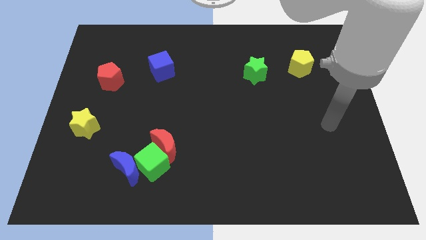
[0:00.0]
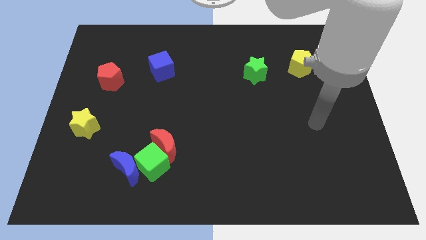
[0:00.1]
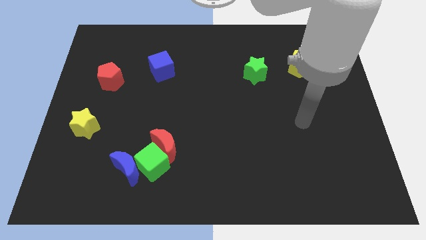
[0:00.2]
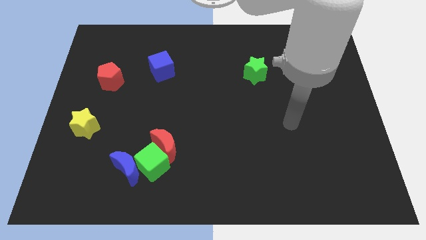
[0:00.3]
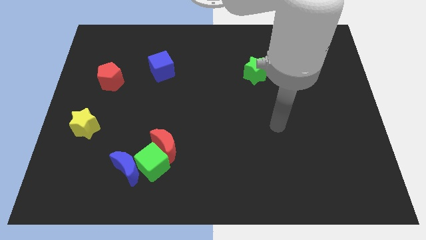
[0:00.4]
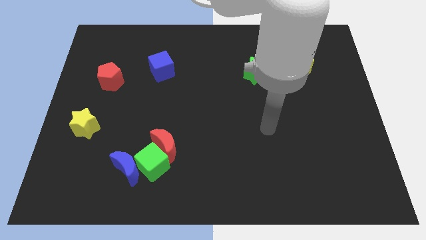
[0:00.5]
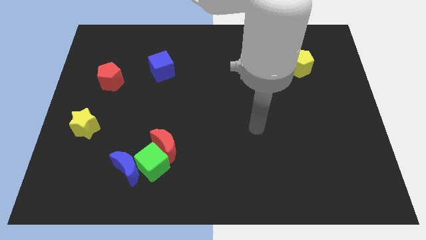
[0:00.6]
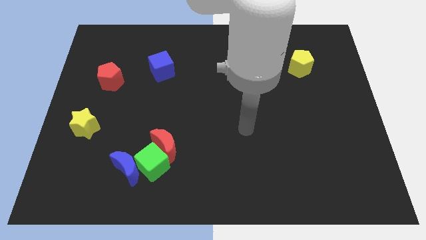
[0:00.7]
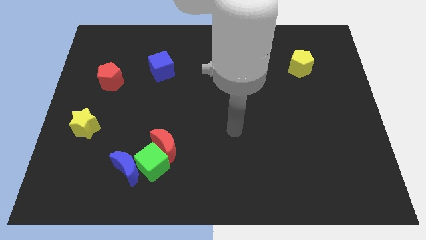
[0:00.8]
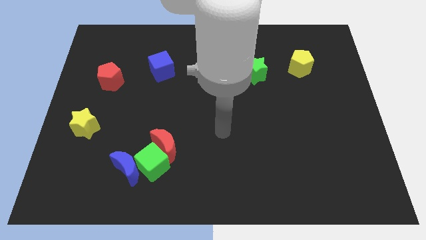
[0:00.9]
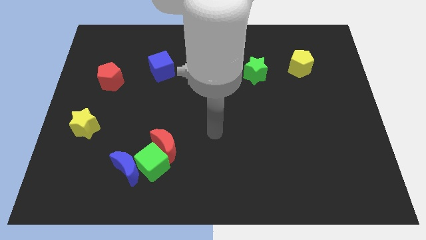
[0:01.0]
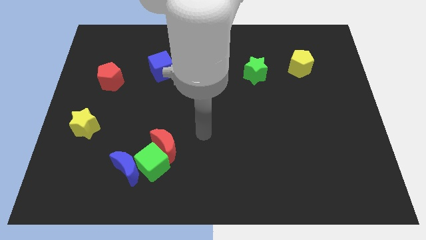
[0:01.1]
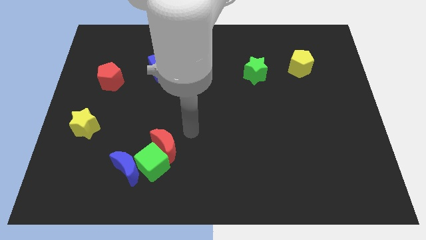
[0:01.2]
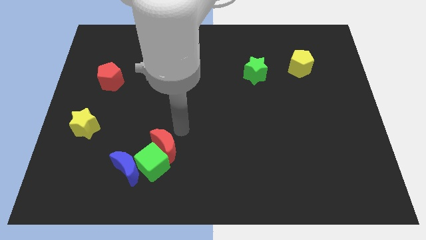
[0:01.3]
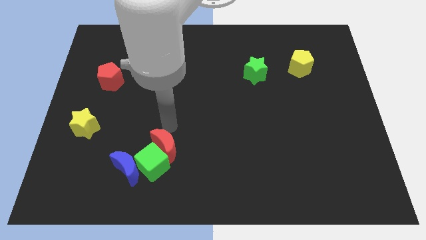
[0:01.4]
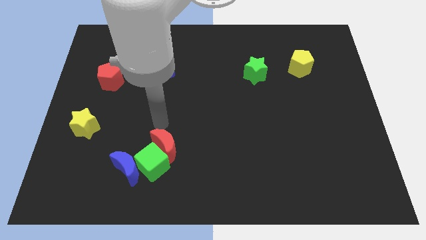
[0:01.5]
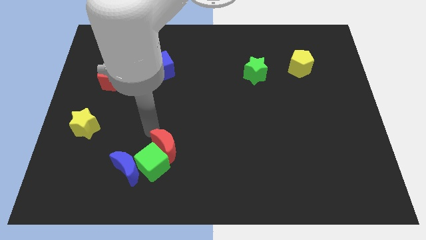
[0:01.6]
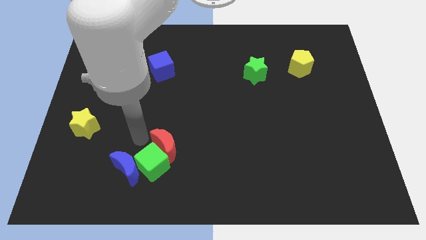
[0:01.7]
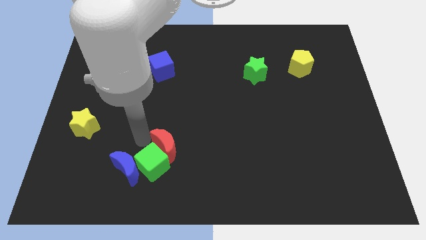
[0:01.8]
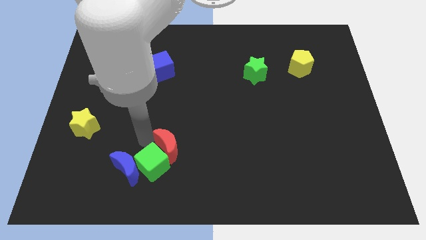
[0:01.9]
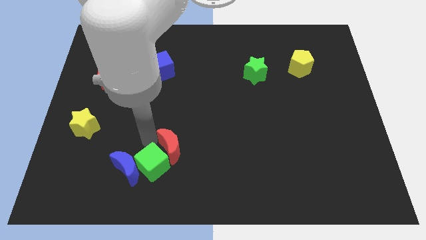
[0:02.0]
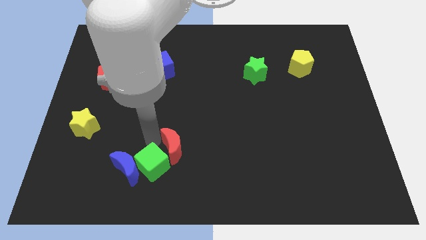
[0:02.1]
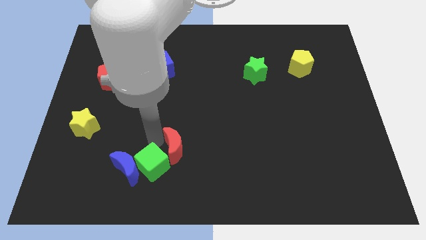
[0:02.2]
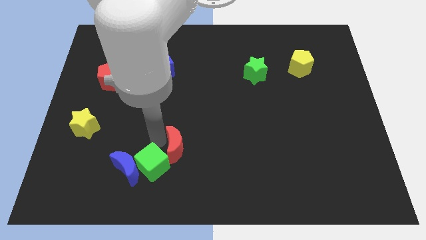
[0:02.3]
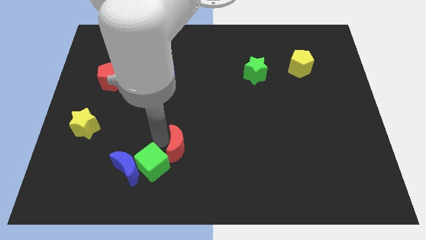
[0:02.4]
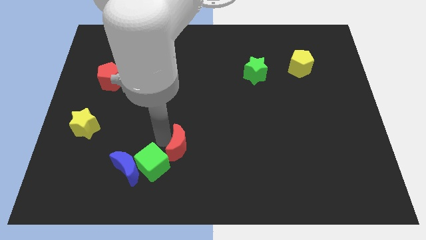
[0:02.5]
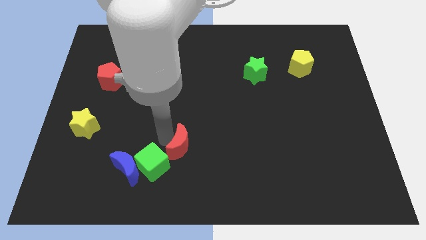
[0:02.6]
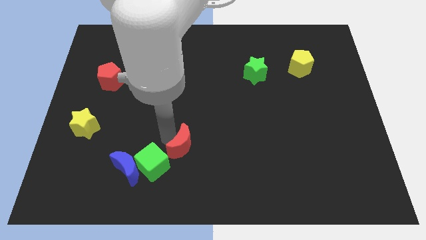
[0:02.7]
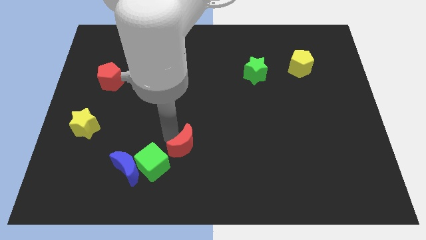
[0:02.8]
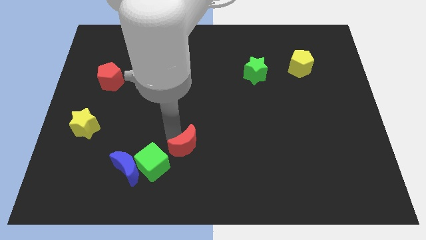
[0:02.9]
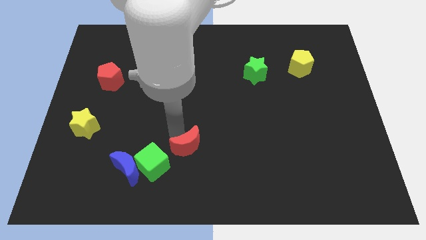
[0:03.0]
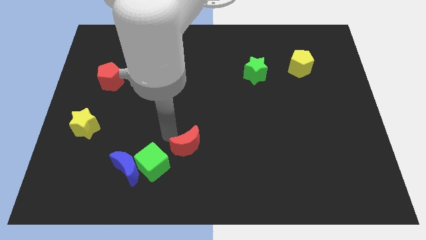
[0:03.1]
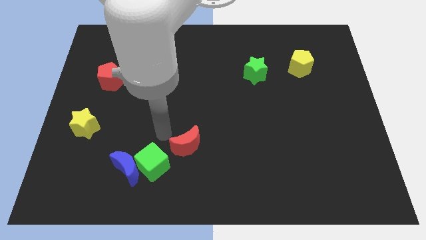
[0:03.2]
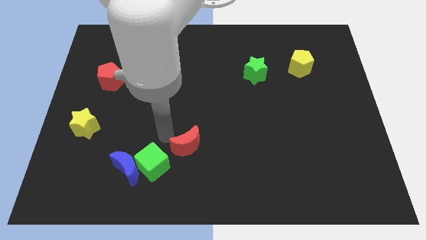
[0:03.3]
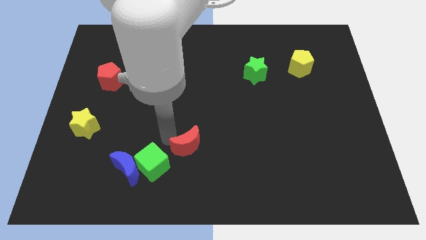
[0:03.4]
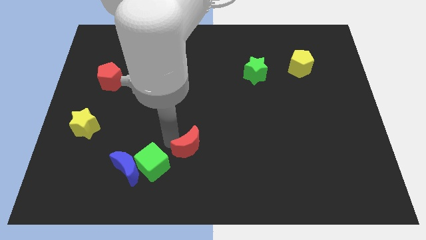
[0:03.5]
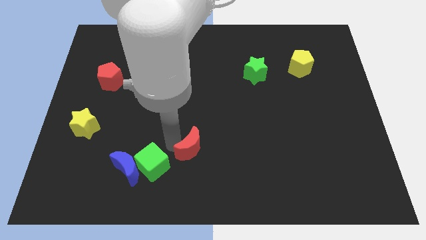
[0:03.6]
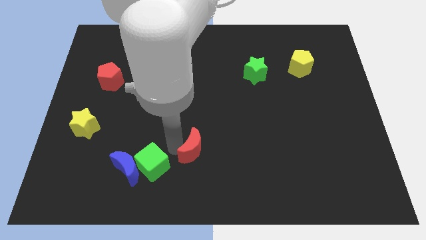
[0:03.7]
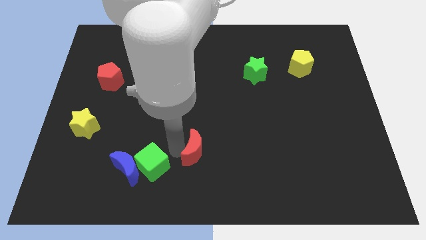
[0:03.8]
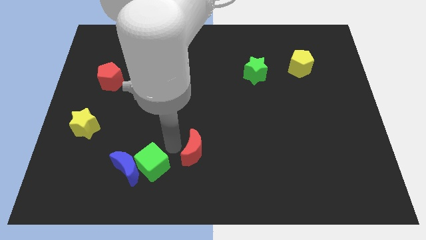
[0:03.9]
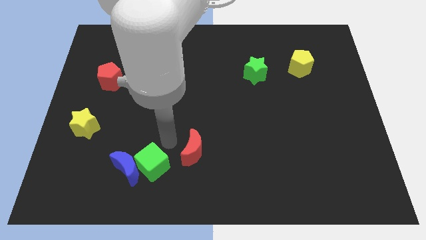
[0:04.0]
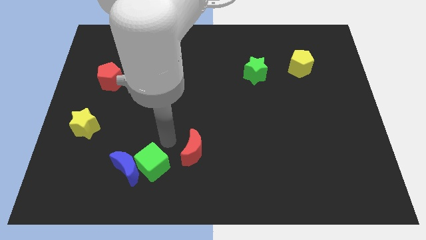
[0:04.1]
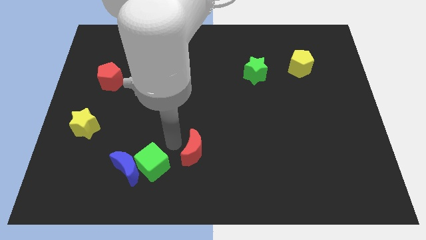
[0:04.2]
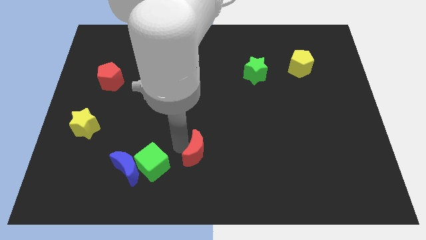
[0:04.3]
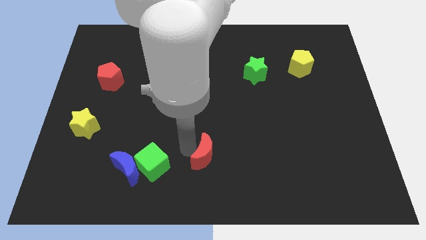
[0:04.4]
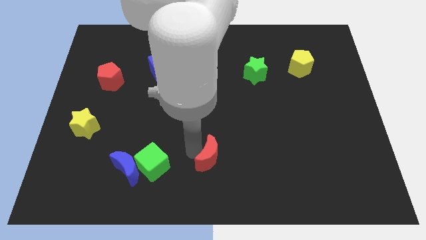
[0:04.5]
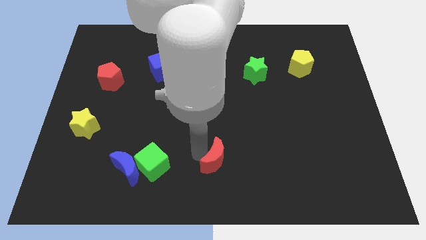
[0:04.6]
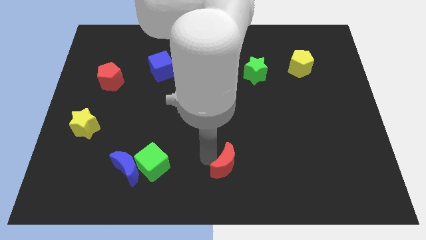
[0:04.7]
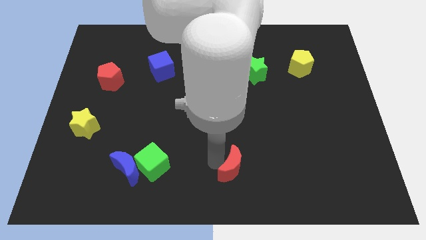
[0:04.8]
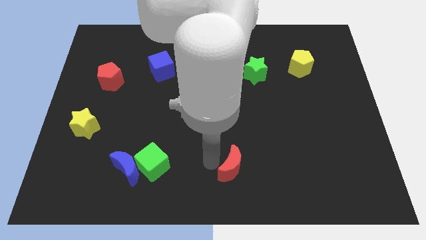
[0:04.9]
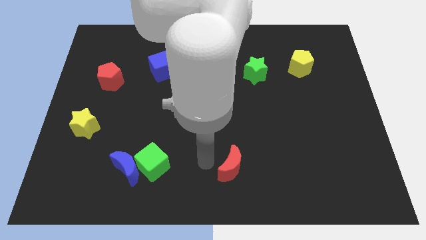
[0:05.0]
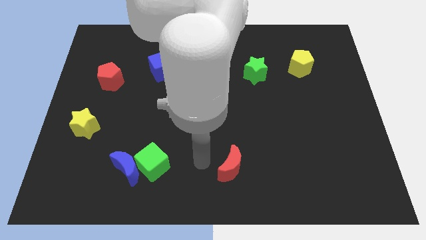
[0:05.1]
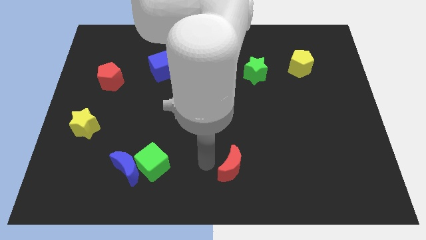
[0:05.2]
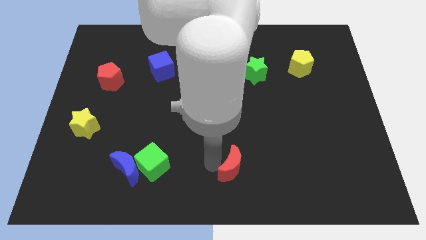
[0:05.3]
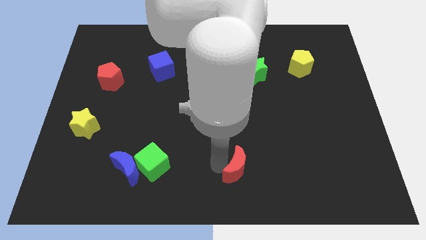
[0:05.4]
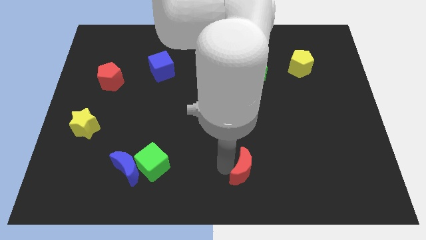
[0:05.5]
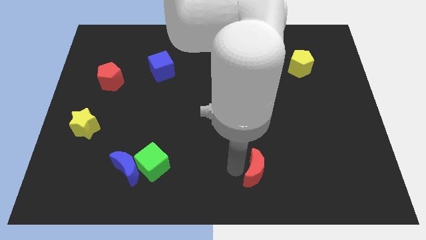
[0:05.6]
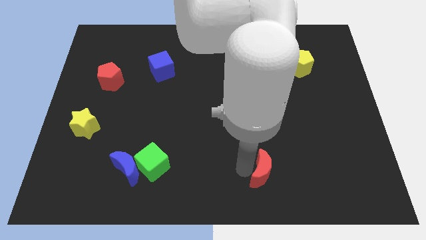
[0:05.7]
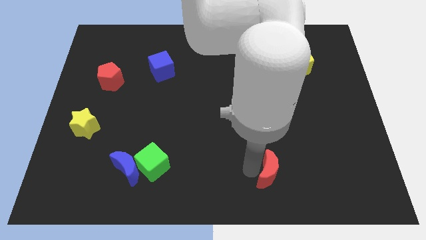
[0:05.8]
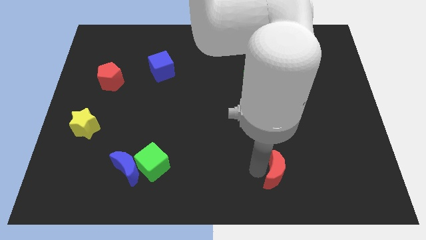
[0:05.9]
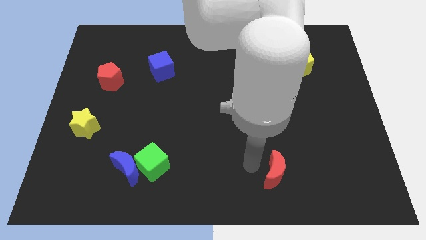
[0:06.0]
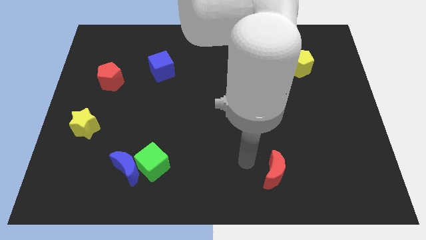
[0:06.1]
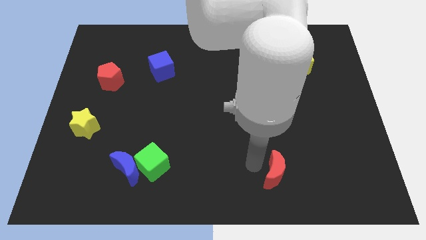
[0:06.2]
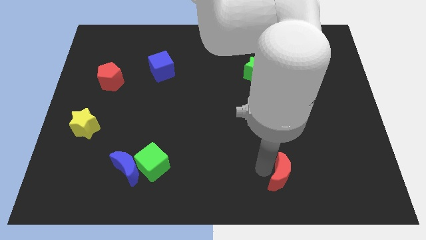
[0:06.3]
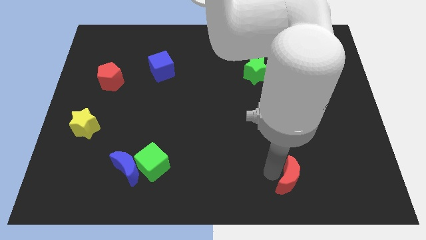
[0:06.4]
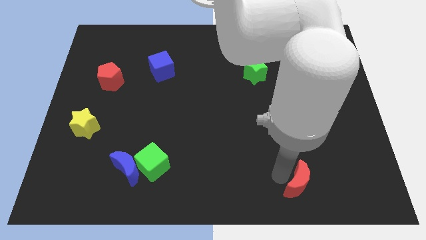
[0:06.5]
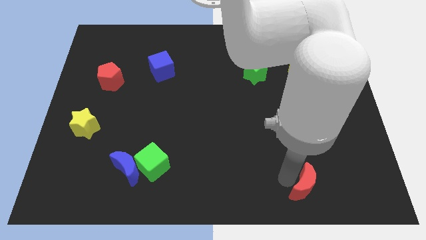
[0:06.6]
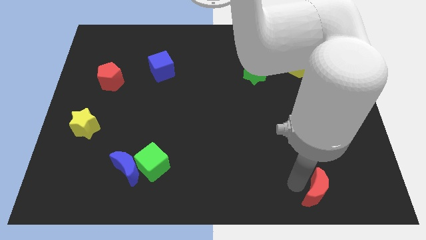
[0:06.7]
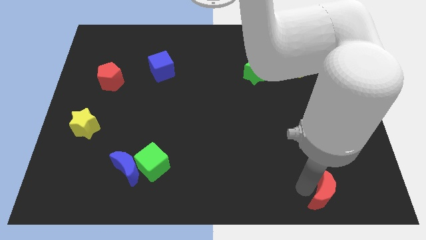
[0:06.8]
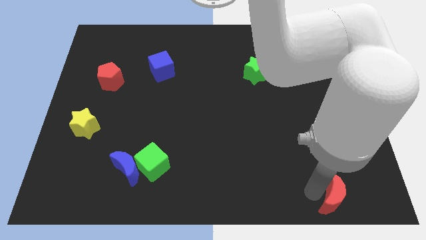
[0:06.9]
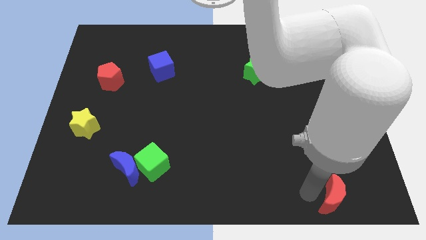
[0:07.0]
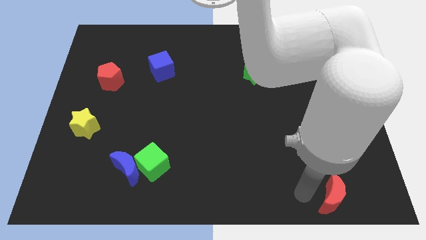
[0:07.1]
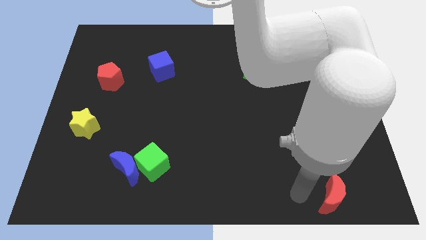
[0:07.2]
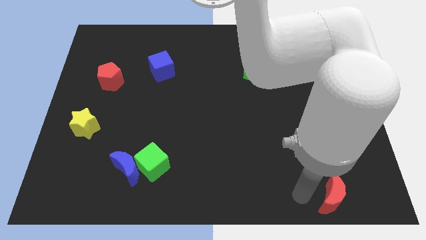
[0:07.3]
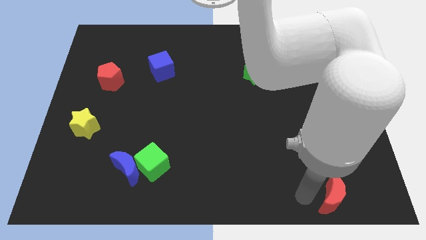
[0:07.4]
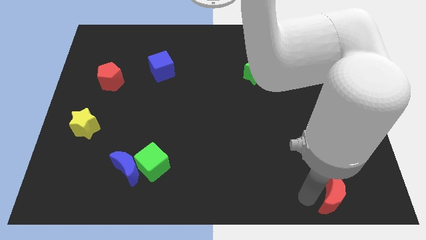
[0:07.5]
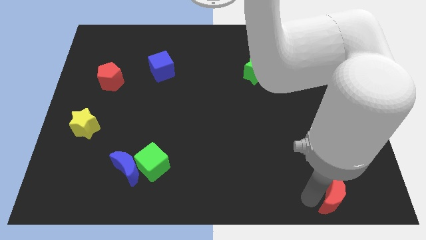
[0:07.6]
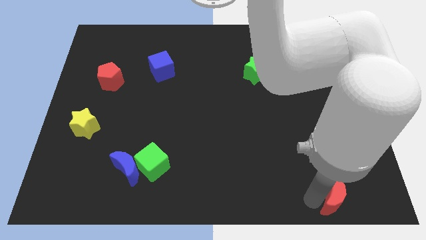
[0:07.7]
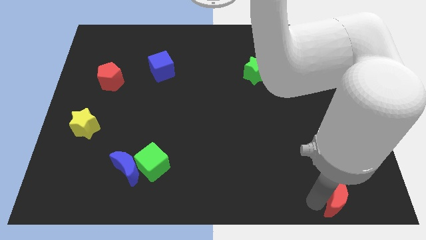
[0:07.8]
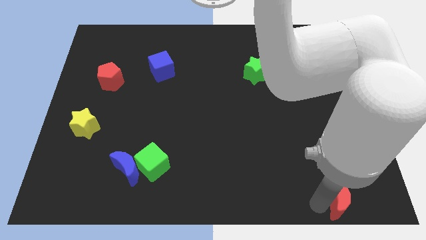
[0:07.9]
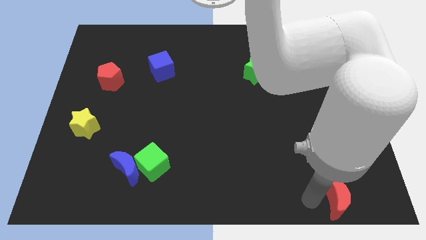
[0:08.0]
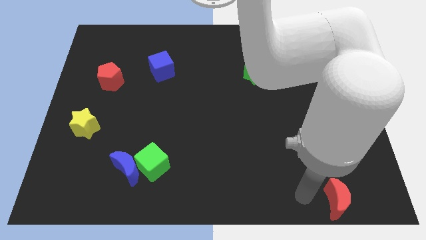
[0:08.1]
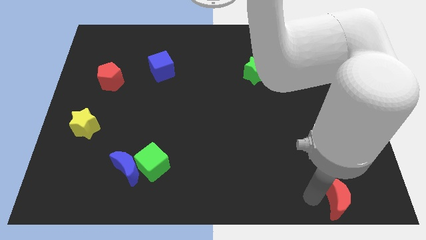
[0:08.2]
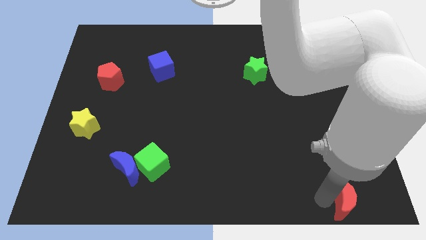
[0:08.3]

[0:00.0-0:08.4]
push the red moon to the lower right corner
